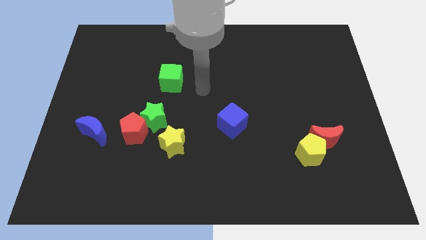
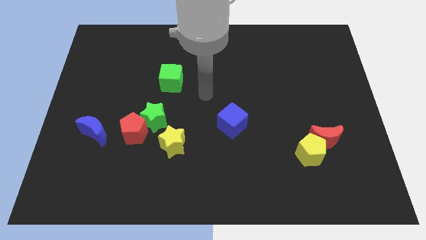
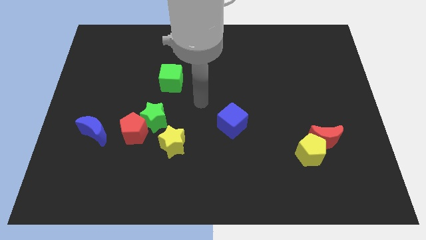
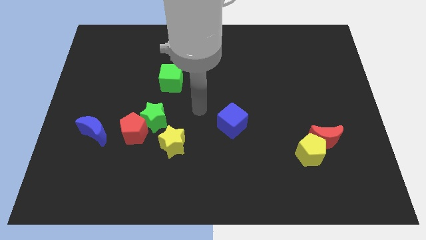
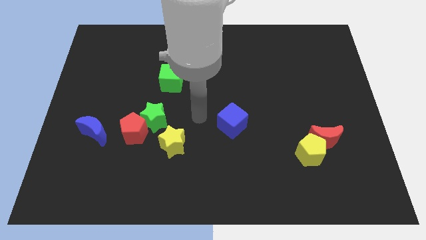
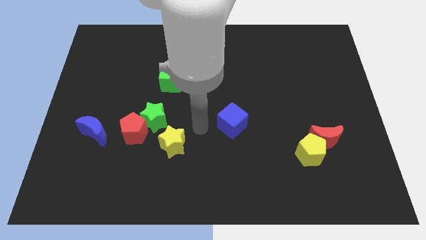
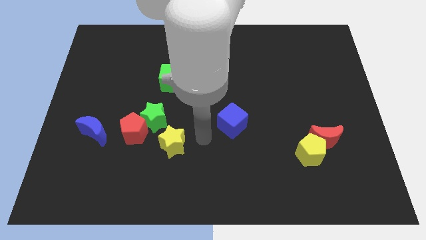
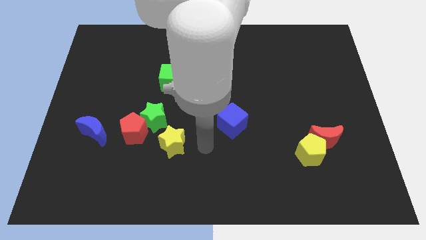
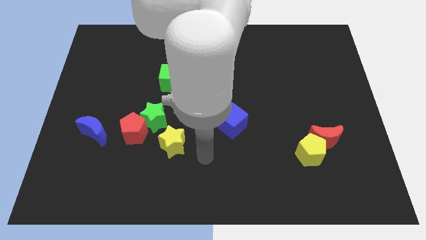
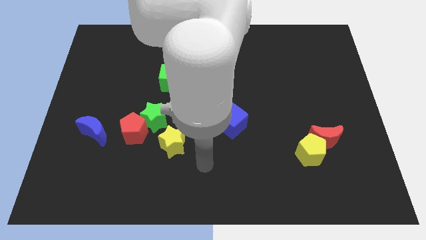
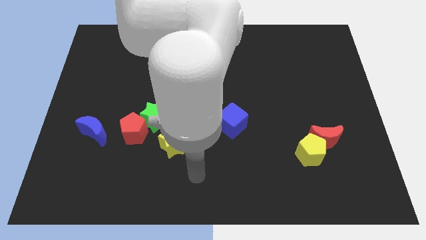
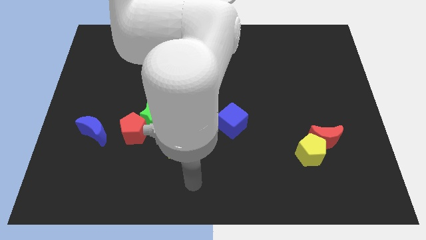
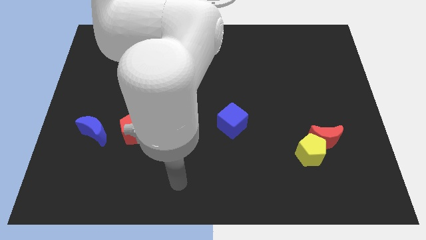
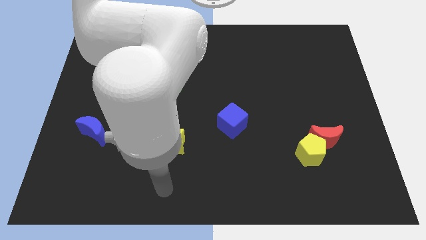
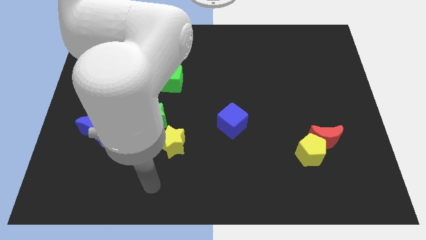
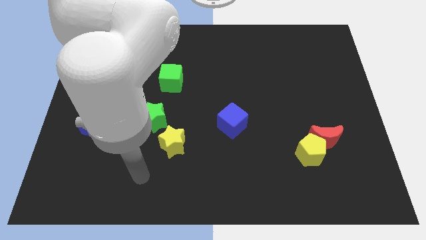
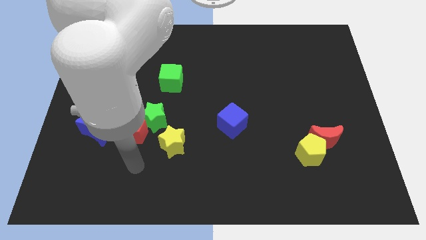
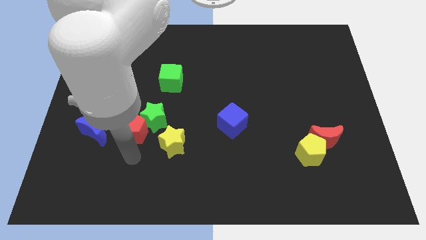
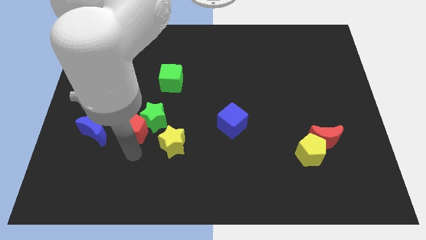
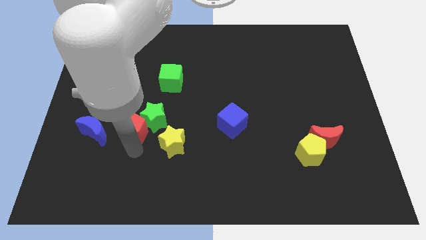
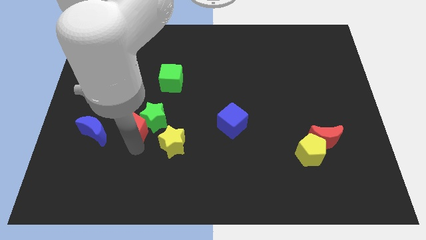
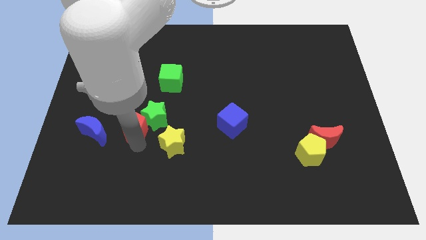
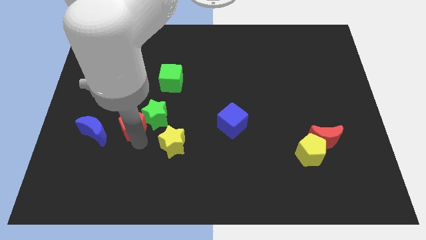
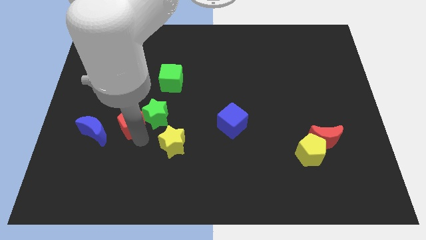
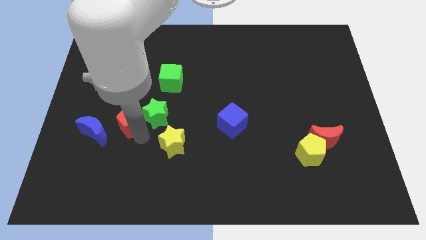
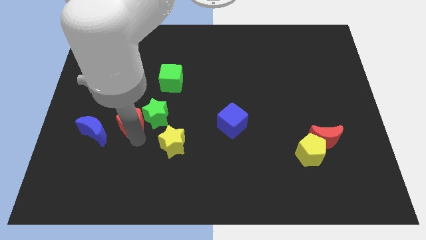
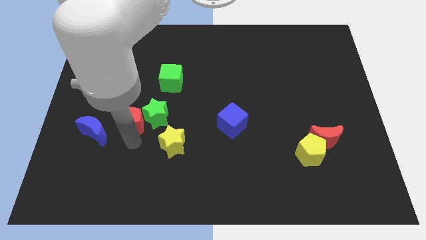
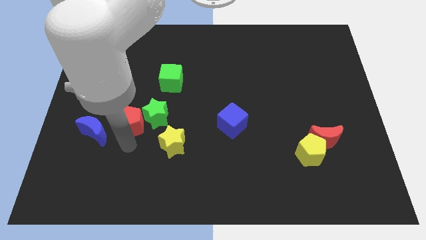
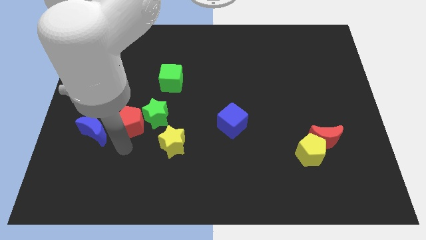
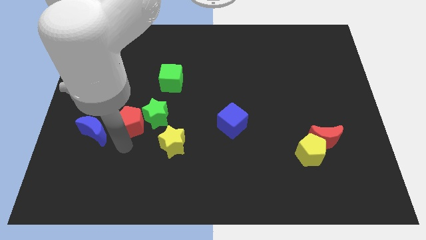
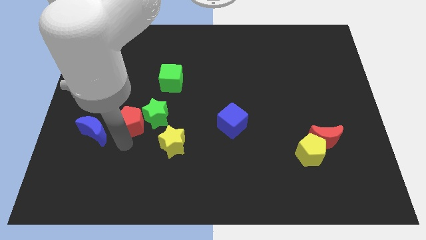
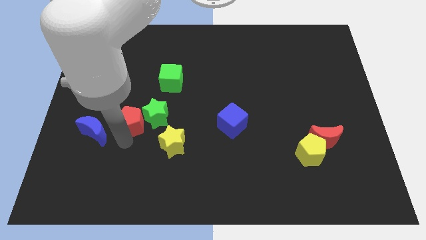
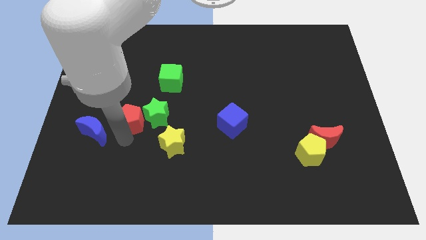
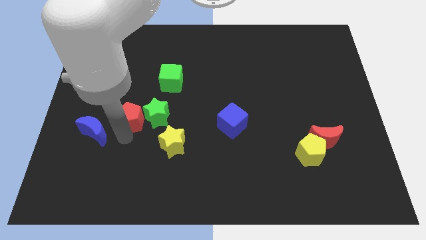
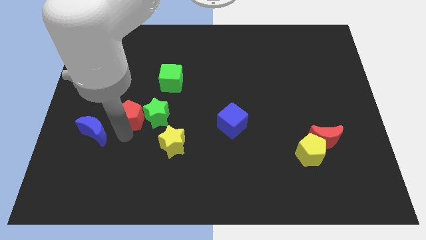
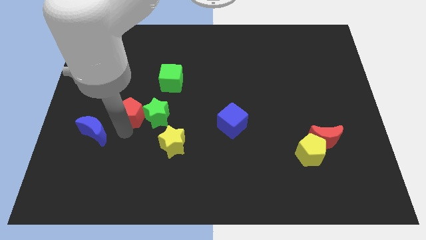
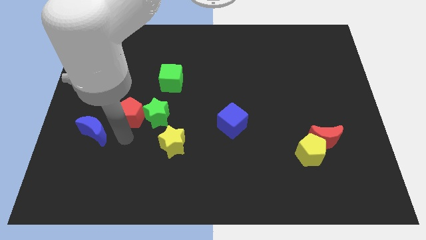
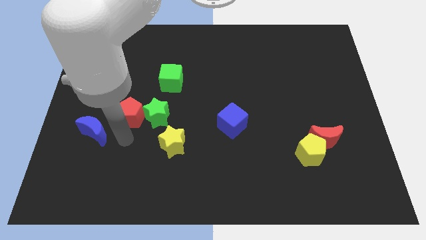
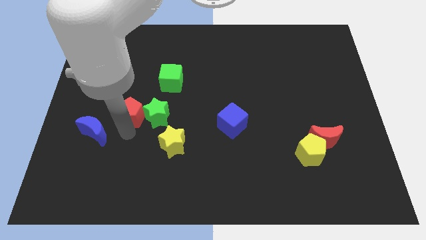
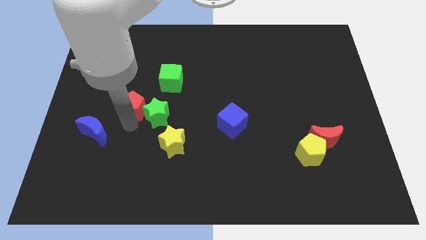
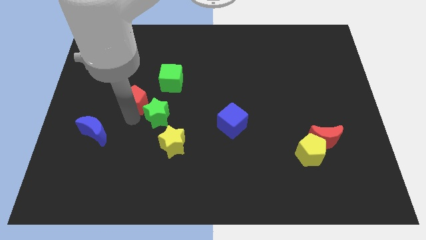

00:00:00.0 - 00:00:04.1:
slide the red pentagon upwards a little

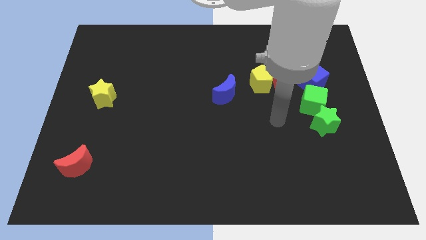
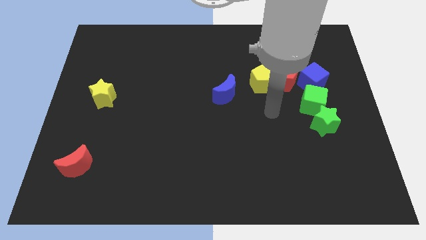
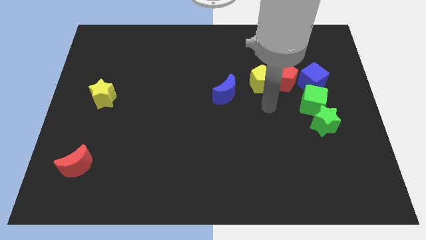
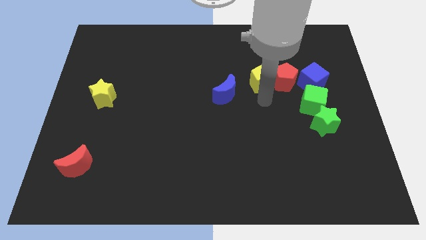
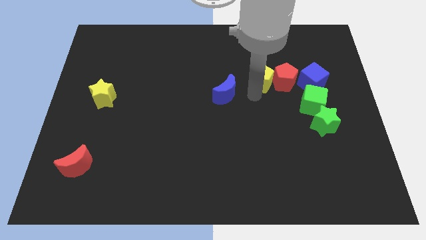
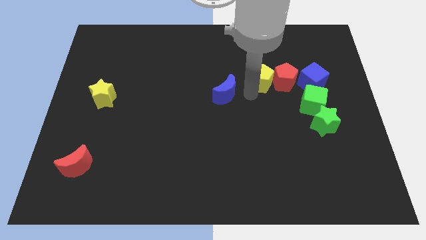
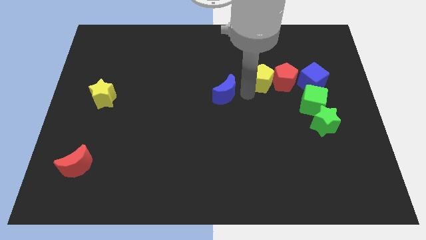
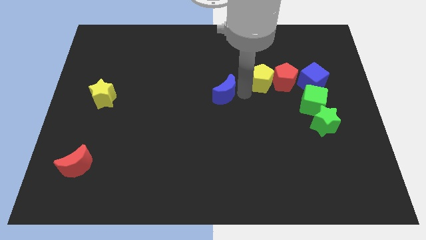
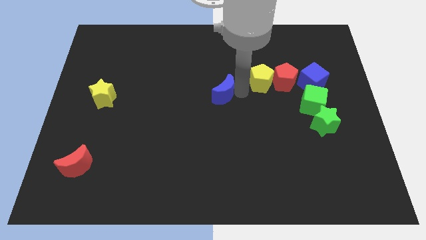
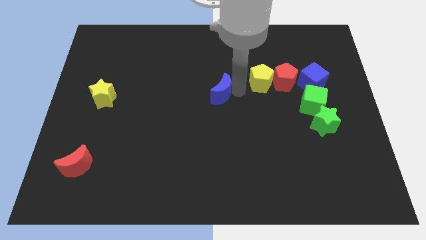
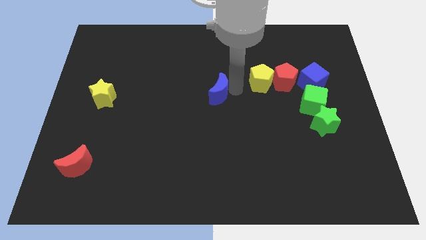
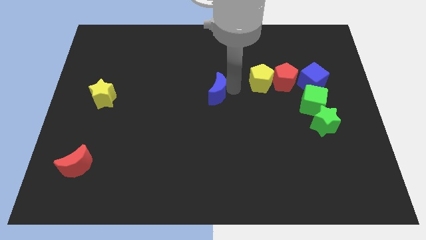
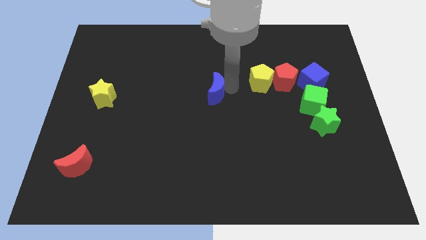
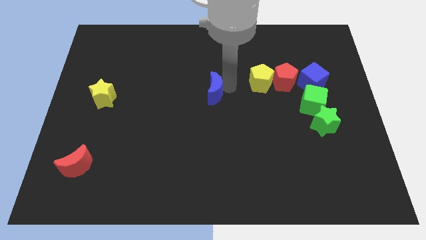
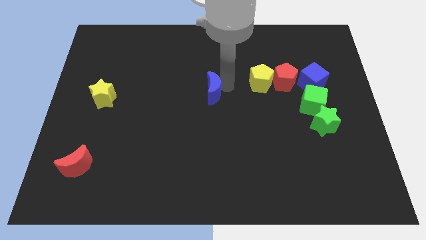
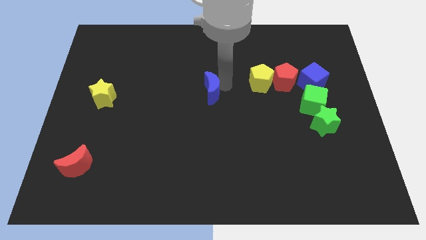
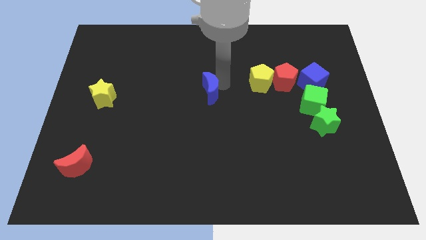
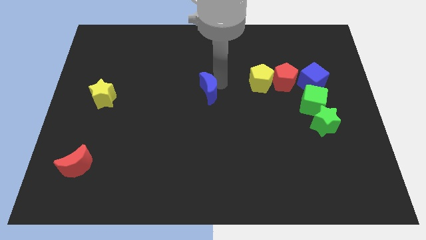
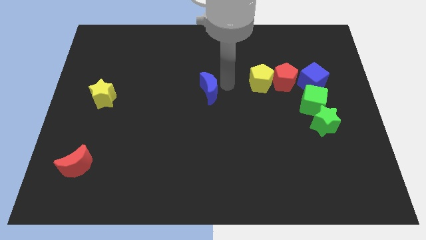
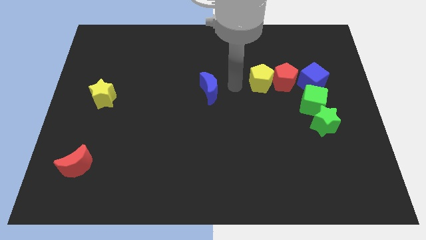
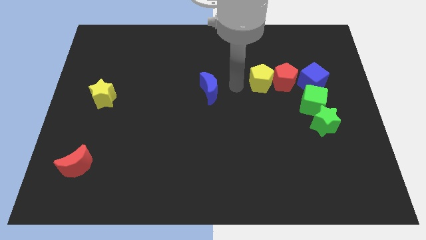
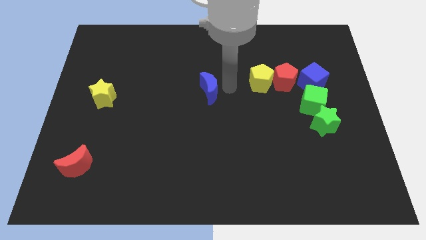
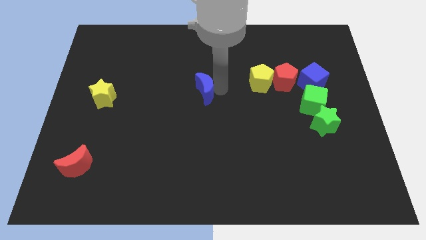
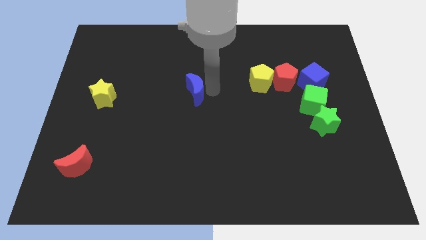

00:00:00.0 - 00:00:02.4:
slide the blue moon a little left

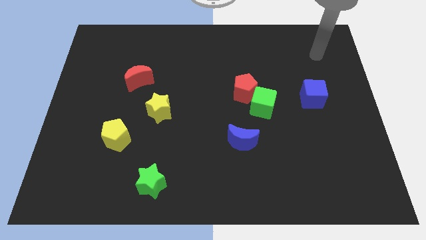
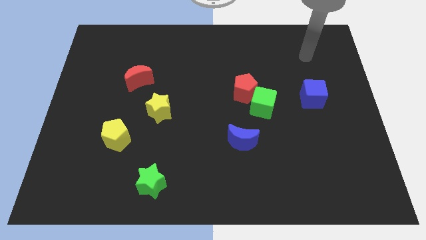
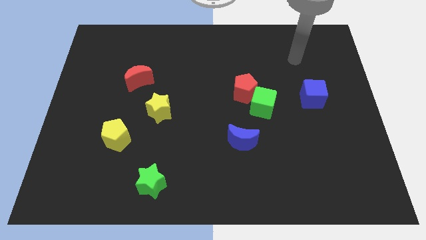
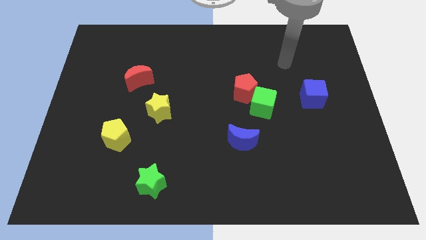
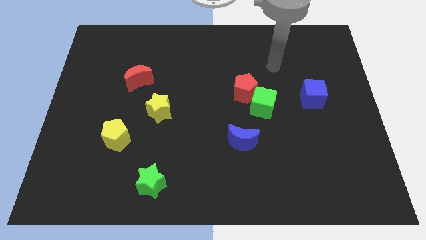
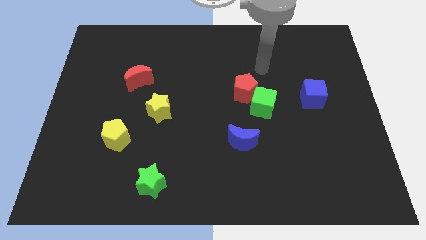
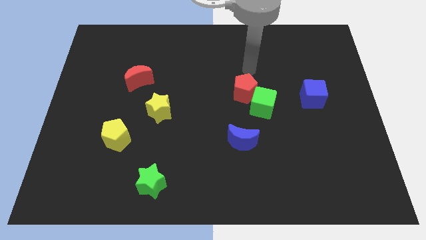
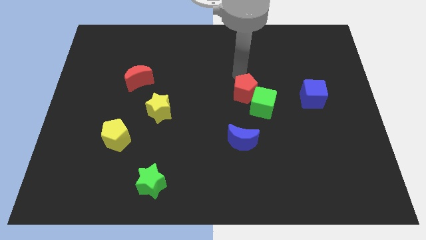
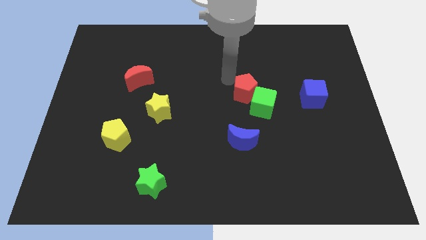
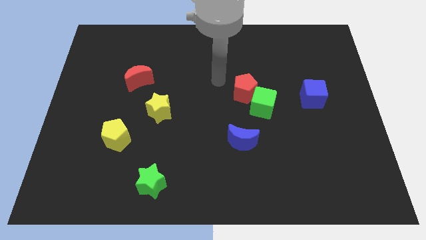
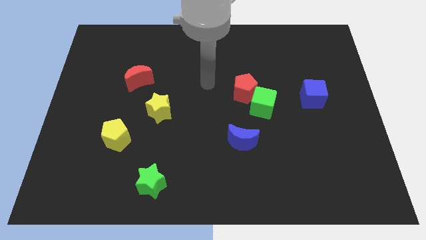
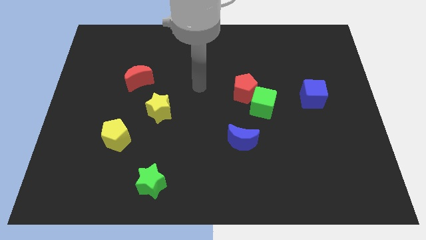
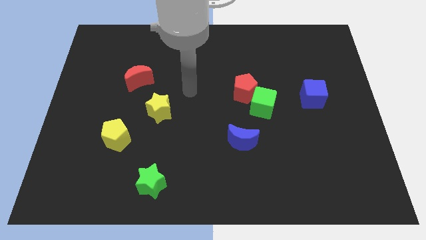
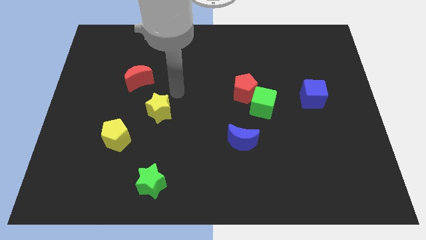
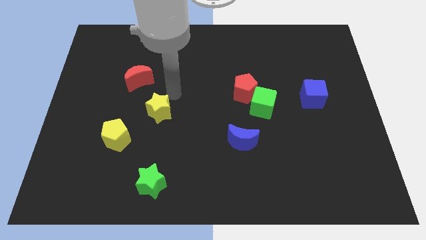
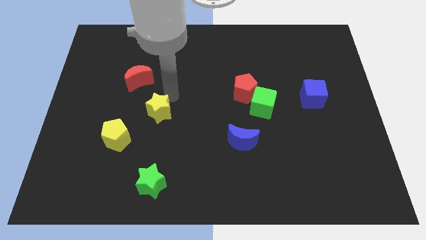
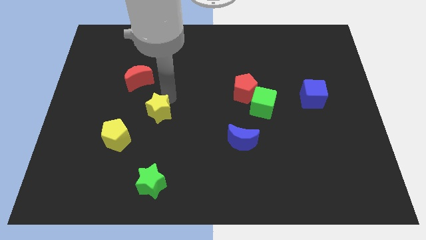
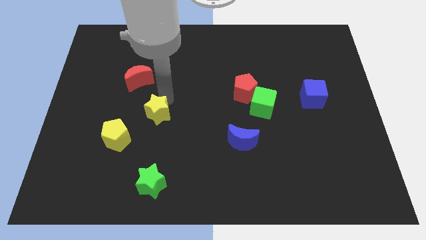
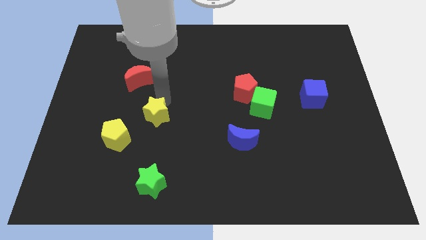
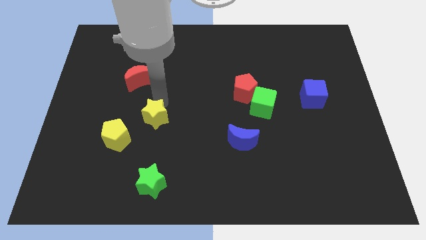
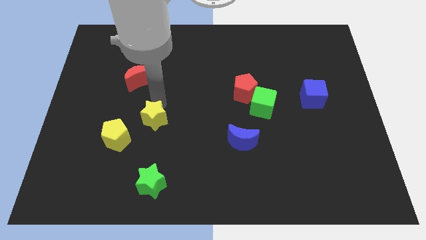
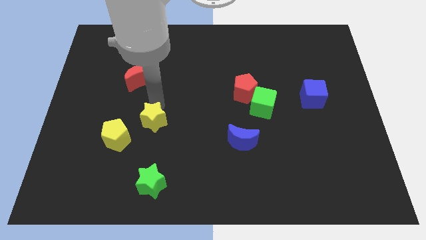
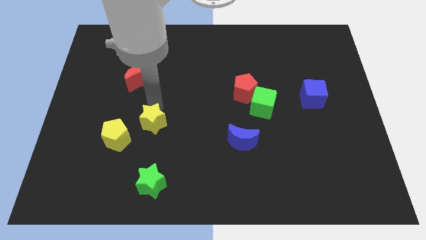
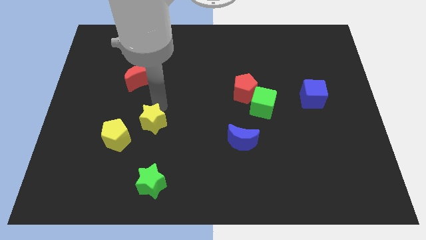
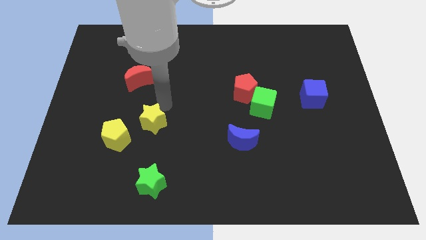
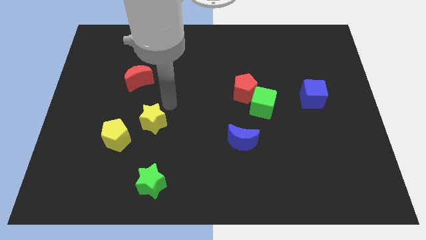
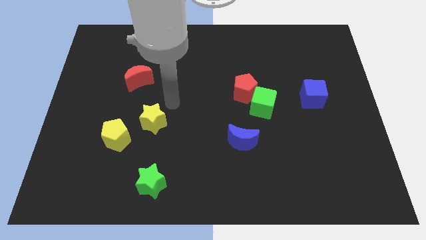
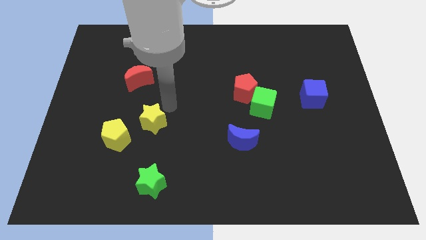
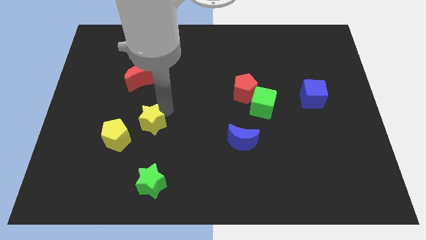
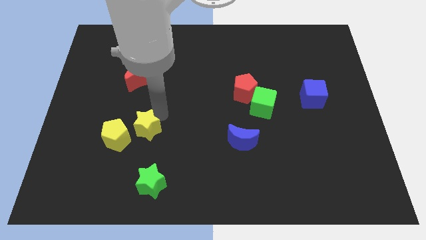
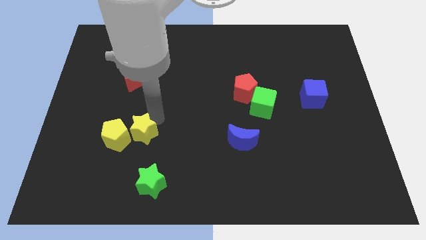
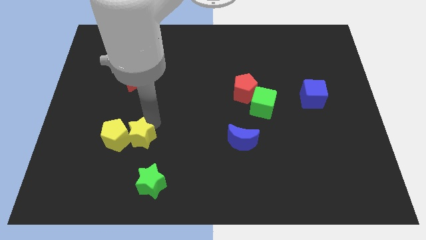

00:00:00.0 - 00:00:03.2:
move the yellow star a little down and then to the left
